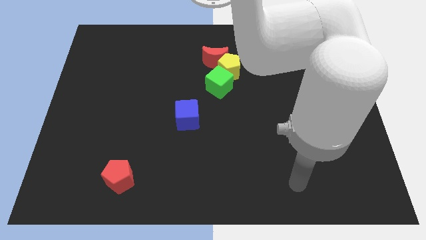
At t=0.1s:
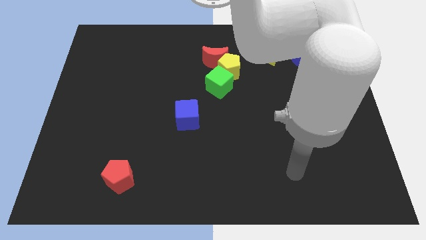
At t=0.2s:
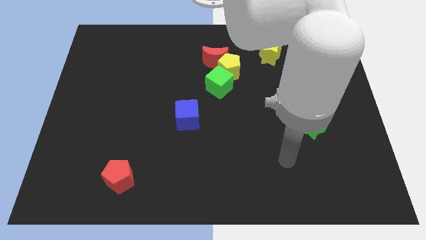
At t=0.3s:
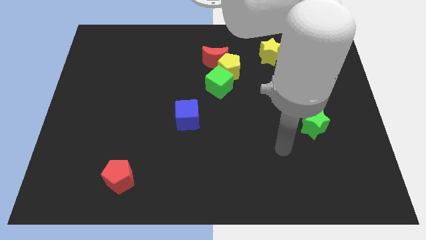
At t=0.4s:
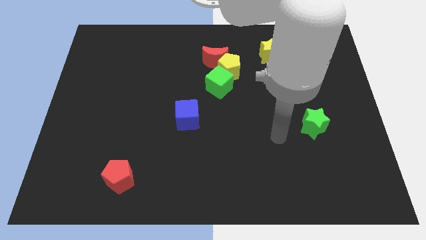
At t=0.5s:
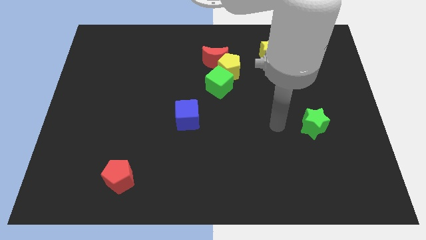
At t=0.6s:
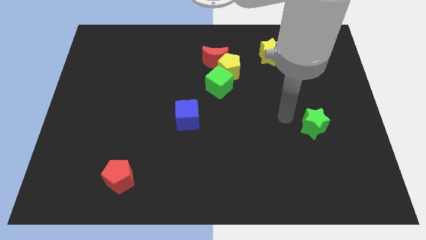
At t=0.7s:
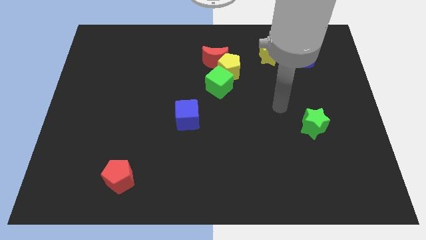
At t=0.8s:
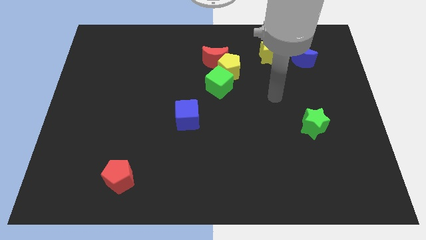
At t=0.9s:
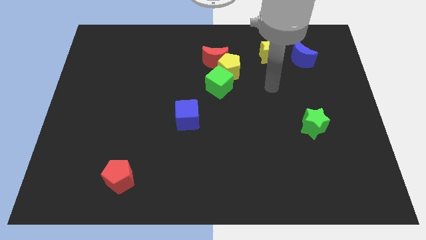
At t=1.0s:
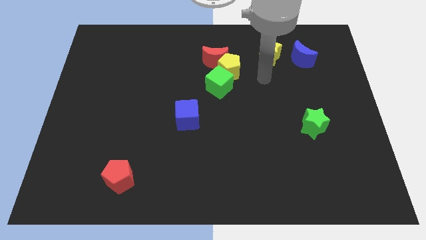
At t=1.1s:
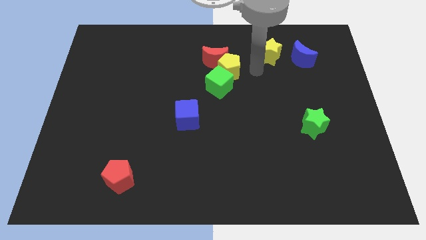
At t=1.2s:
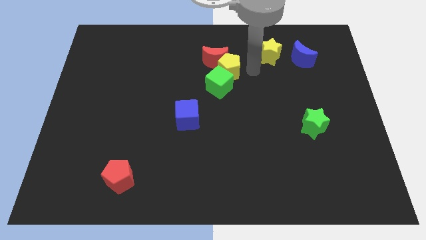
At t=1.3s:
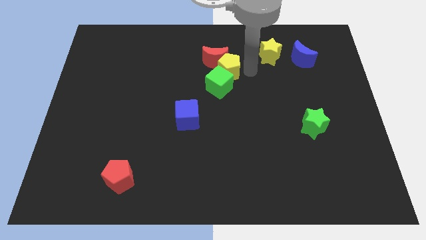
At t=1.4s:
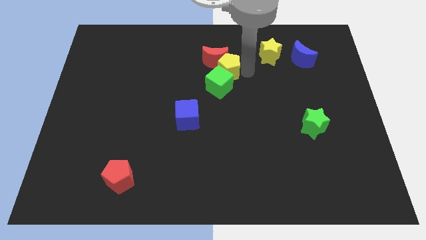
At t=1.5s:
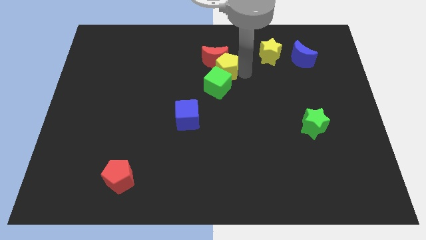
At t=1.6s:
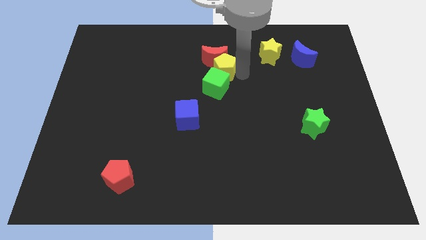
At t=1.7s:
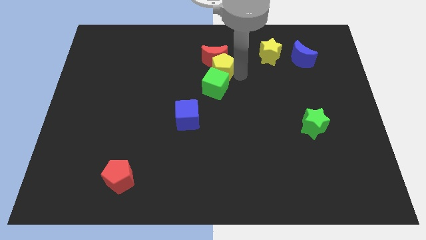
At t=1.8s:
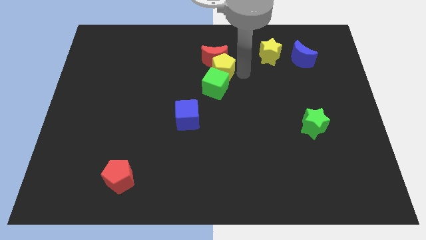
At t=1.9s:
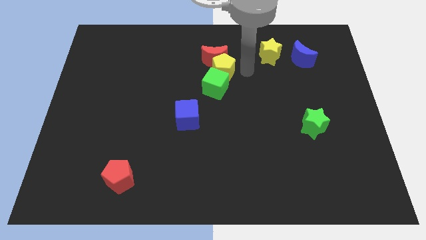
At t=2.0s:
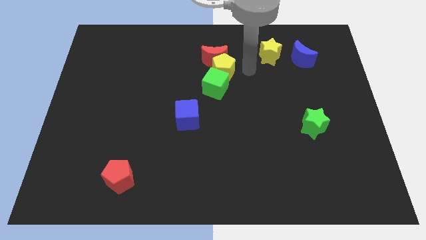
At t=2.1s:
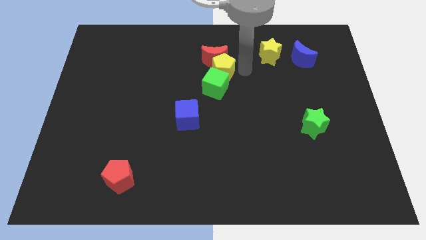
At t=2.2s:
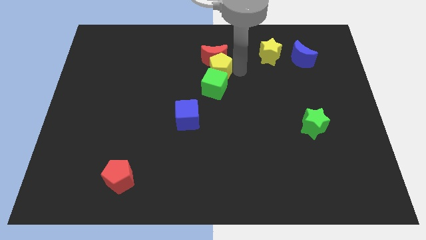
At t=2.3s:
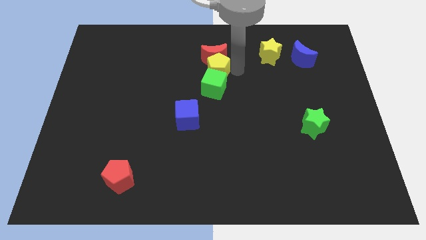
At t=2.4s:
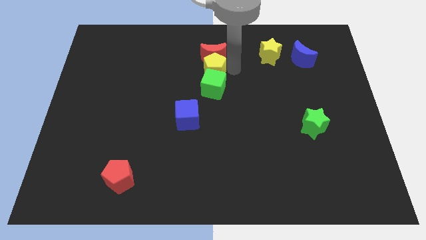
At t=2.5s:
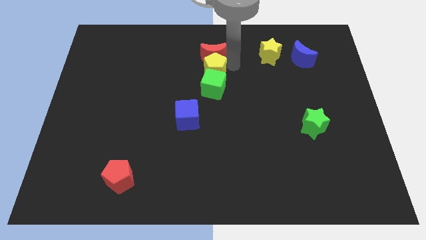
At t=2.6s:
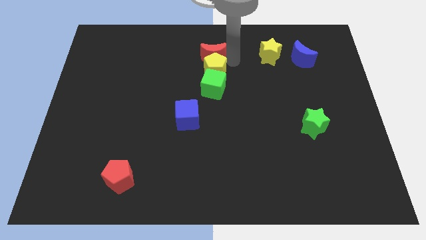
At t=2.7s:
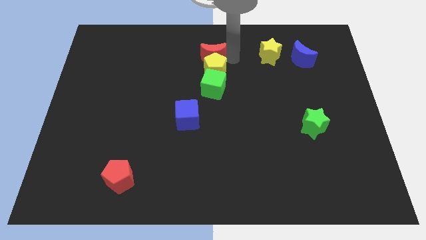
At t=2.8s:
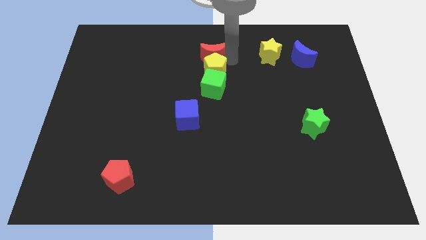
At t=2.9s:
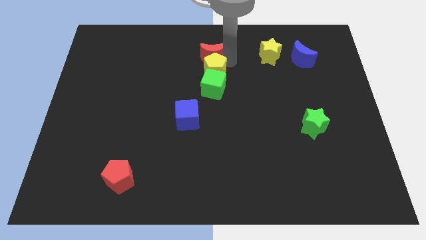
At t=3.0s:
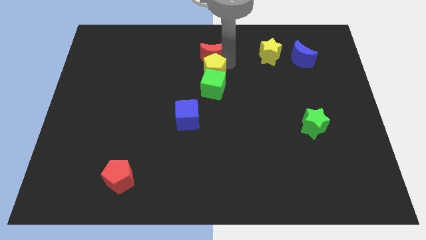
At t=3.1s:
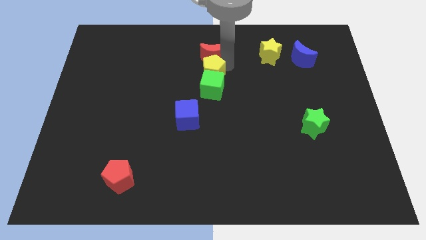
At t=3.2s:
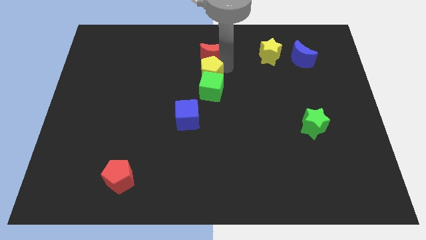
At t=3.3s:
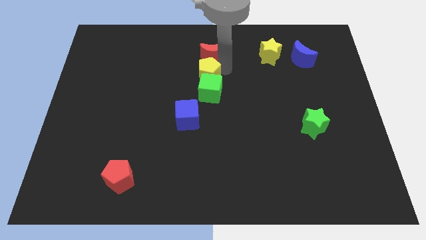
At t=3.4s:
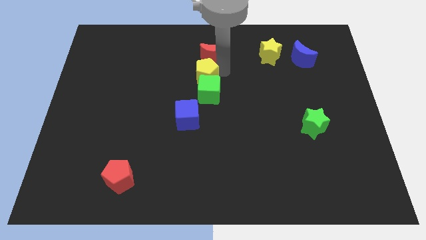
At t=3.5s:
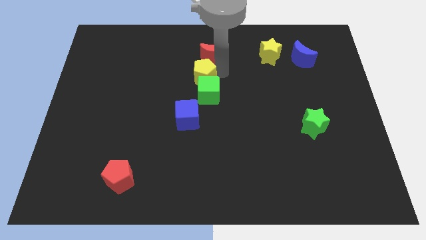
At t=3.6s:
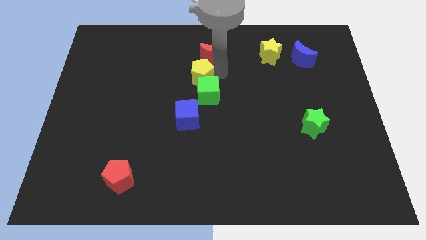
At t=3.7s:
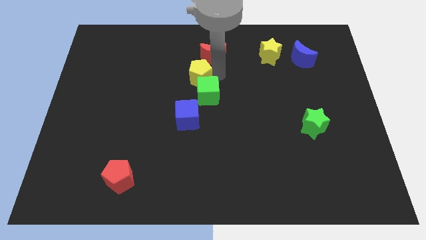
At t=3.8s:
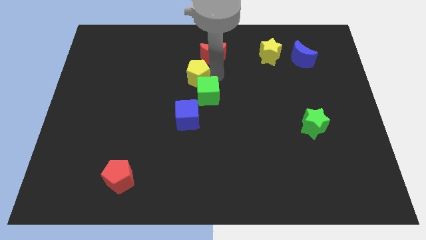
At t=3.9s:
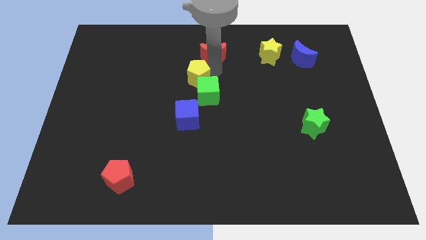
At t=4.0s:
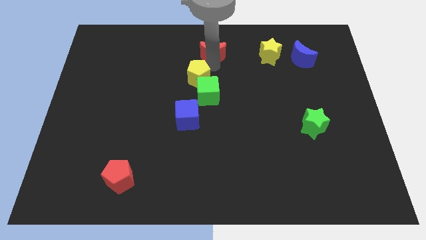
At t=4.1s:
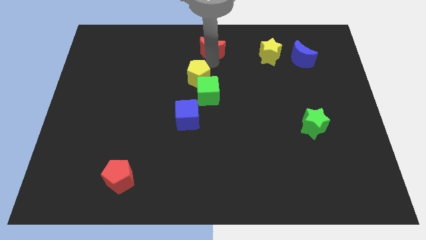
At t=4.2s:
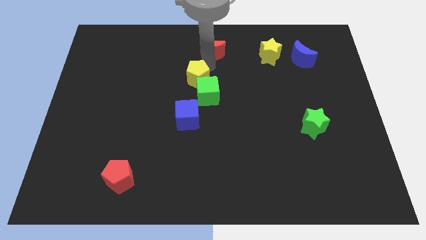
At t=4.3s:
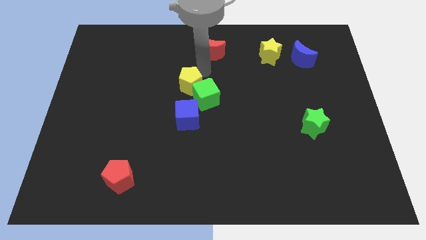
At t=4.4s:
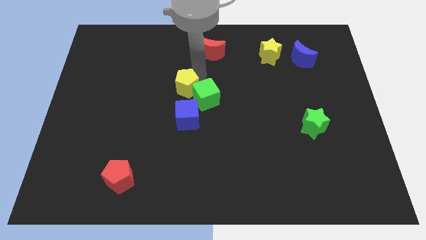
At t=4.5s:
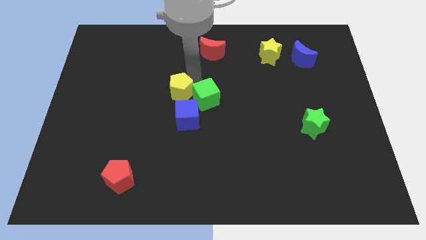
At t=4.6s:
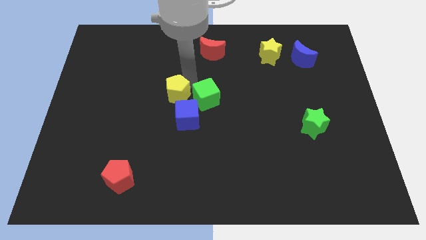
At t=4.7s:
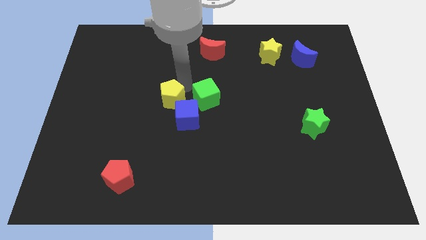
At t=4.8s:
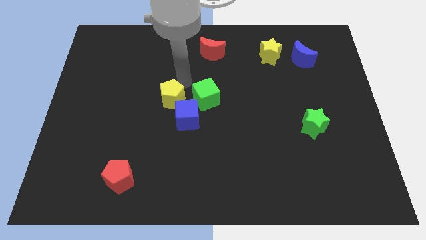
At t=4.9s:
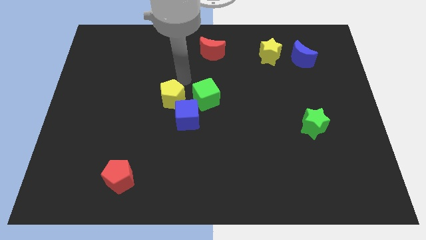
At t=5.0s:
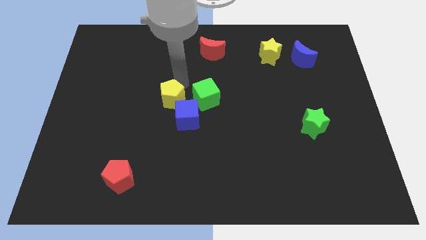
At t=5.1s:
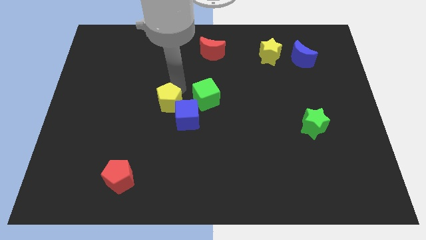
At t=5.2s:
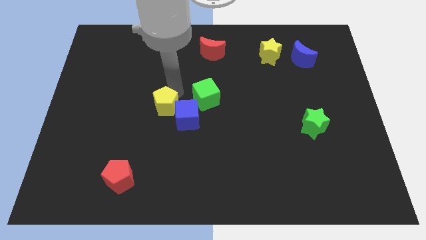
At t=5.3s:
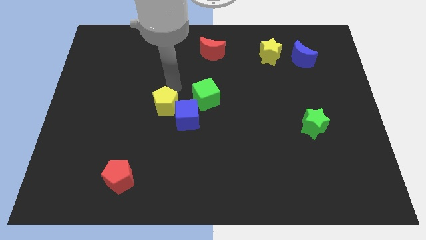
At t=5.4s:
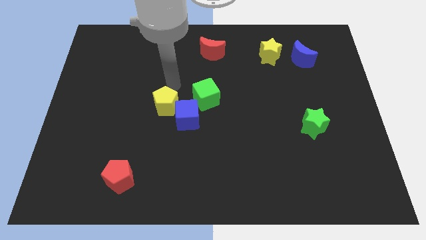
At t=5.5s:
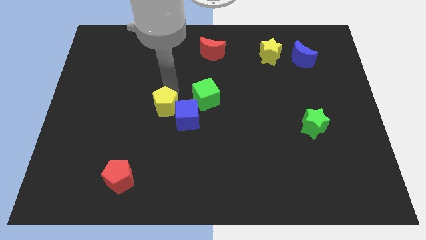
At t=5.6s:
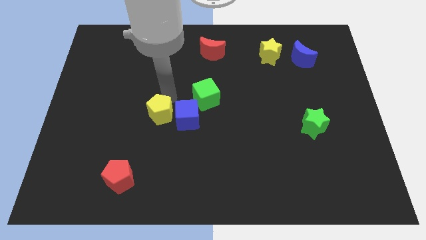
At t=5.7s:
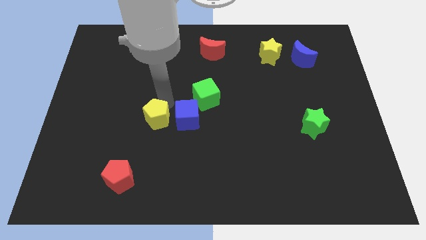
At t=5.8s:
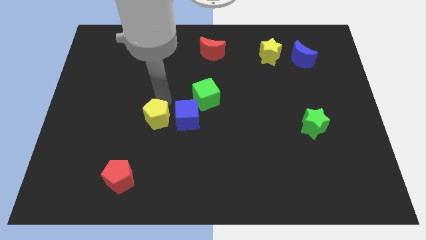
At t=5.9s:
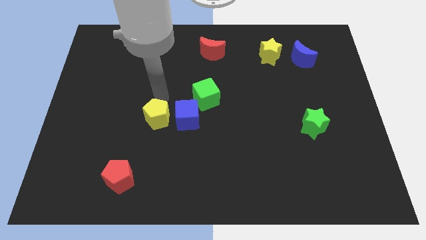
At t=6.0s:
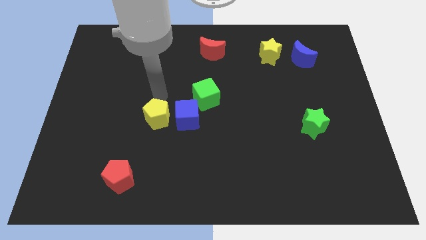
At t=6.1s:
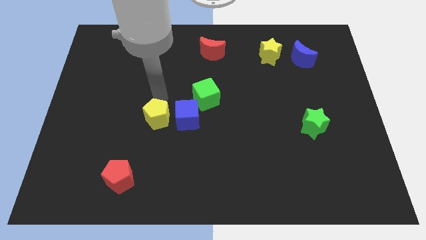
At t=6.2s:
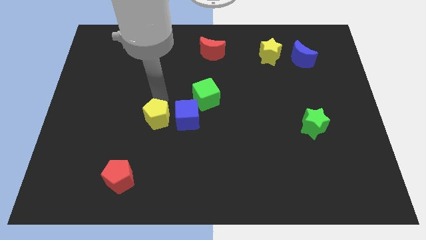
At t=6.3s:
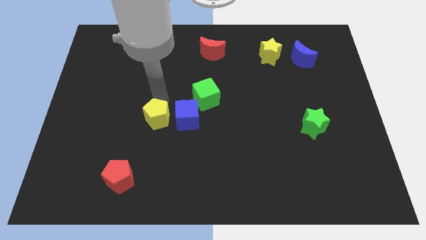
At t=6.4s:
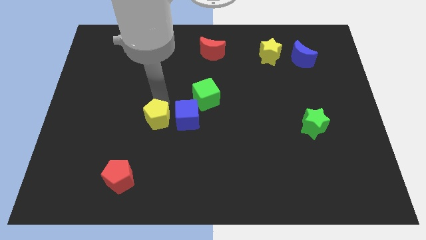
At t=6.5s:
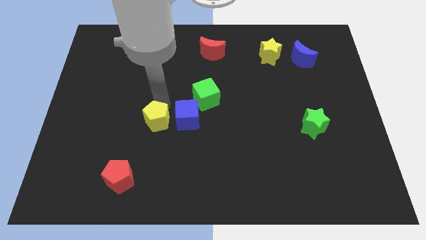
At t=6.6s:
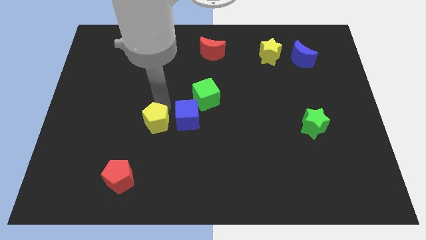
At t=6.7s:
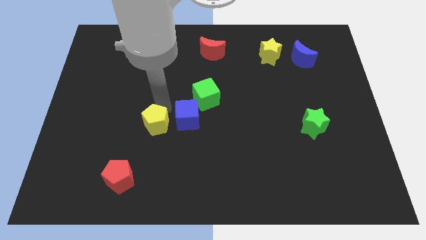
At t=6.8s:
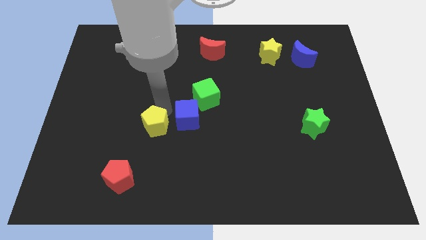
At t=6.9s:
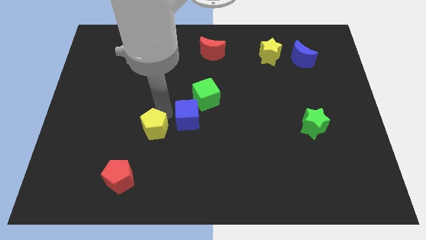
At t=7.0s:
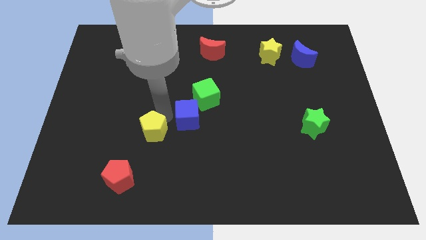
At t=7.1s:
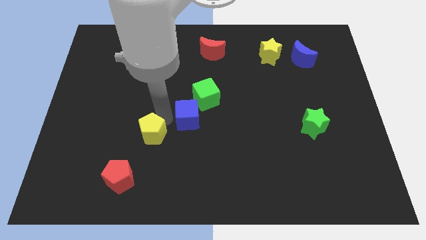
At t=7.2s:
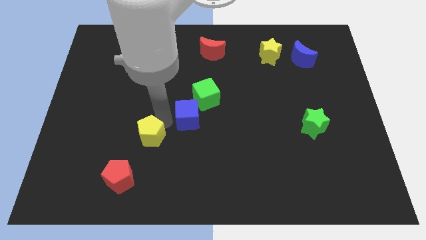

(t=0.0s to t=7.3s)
slide the yellow pentagon to the top right side of the red pentagon
